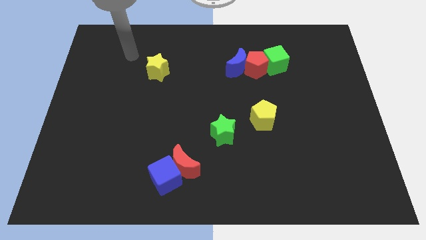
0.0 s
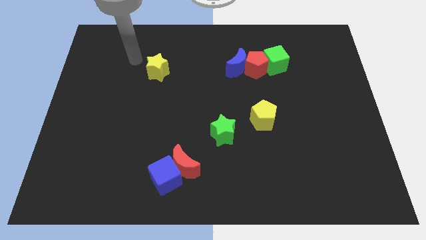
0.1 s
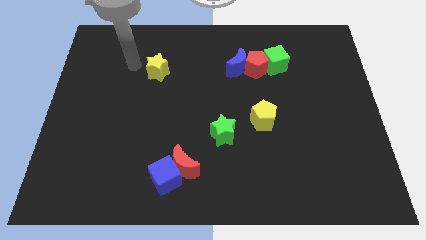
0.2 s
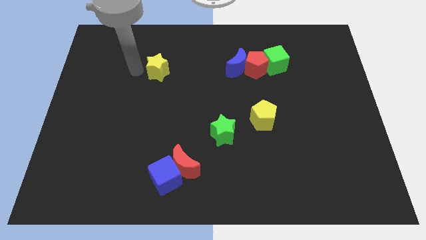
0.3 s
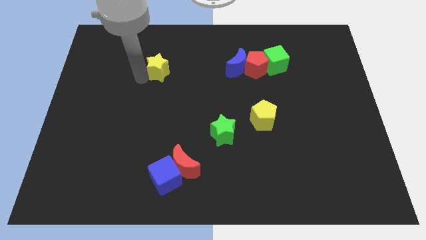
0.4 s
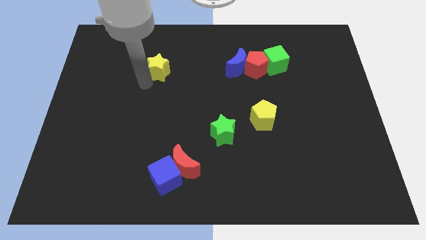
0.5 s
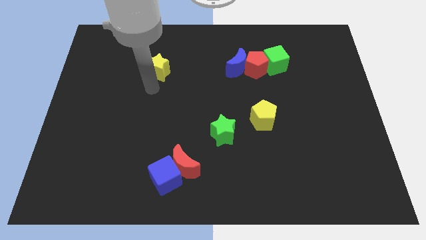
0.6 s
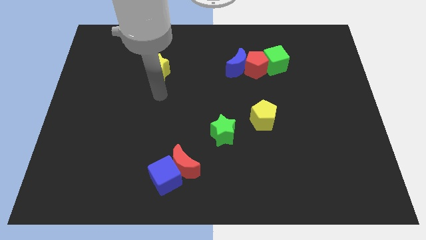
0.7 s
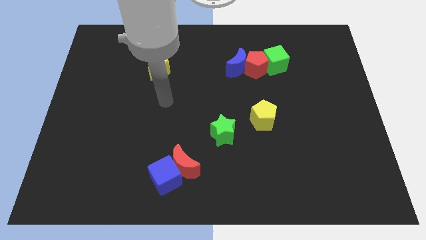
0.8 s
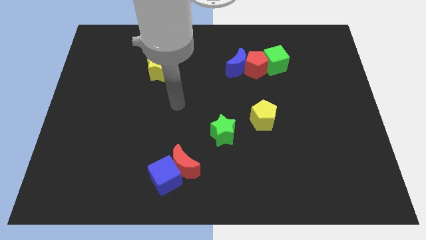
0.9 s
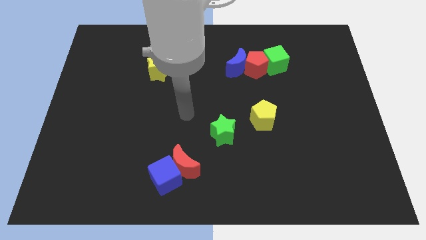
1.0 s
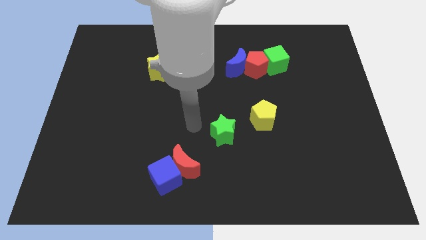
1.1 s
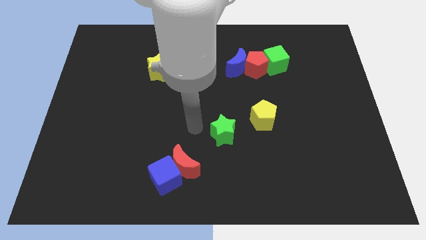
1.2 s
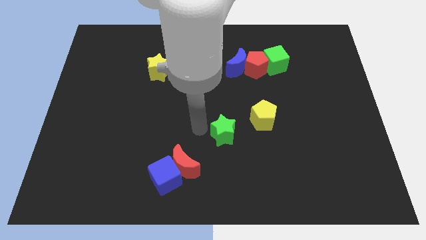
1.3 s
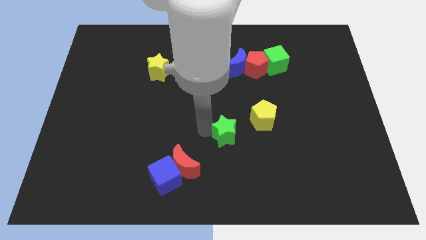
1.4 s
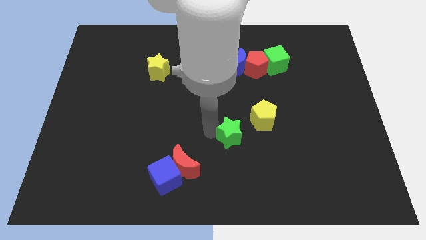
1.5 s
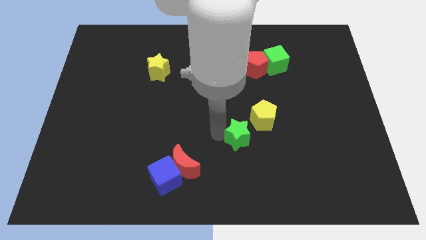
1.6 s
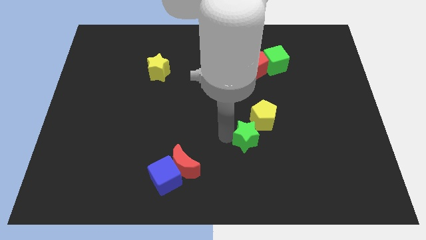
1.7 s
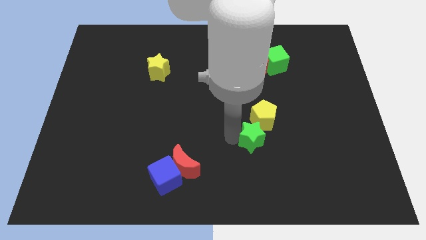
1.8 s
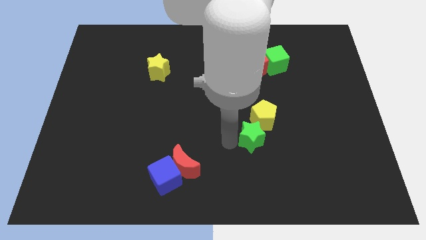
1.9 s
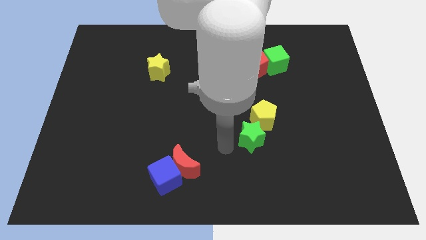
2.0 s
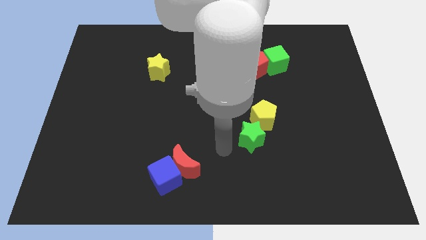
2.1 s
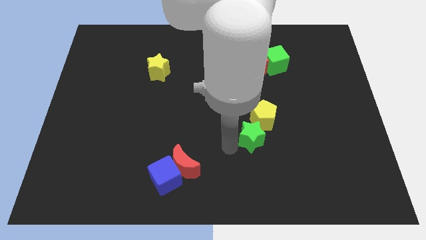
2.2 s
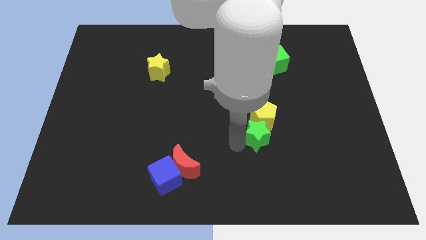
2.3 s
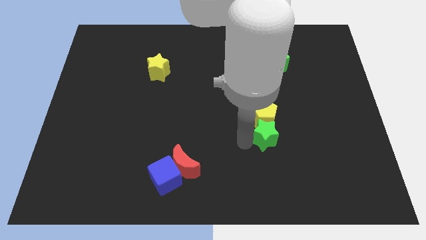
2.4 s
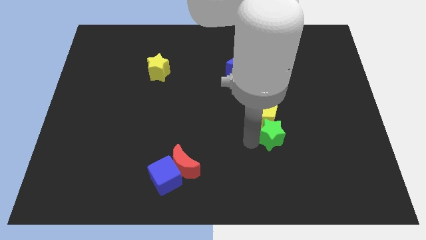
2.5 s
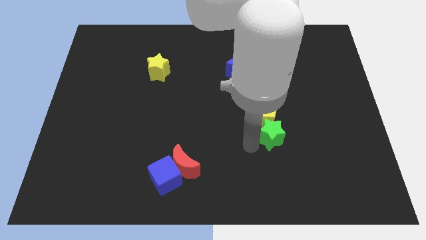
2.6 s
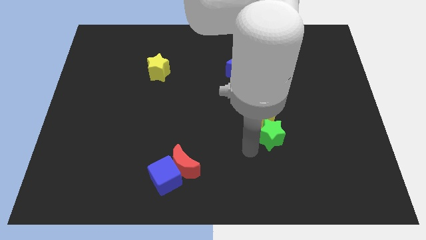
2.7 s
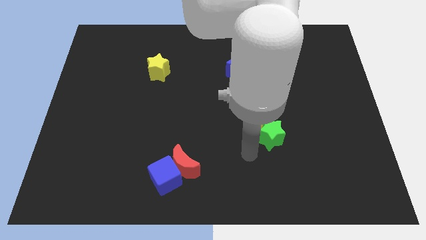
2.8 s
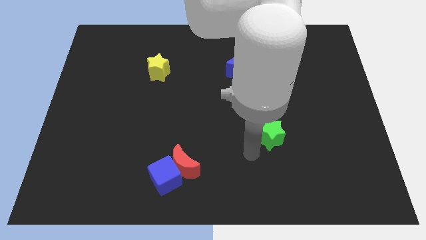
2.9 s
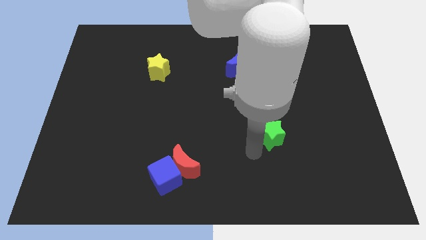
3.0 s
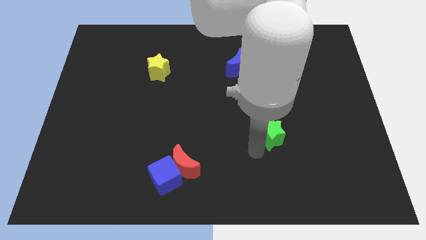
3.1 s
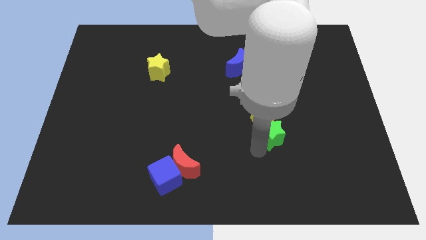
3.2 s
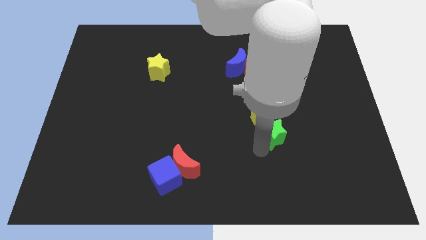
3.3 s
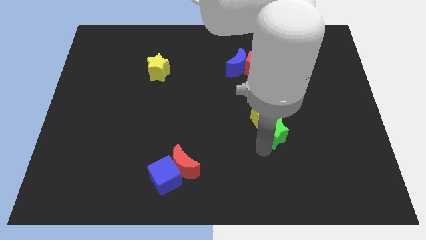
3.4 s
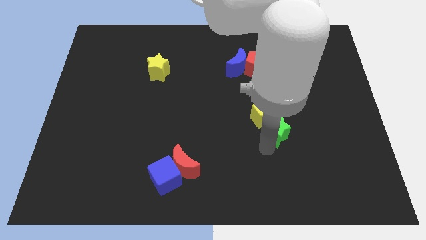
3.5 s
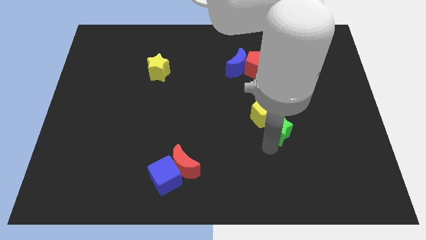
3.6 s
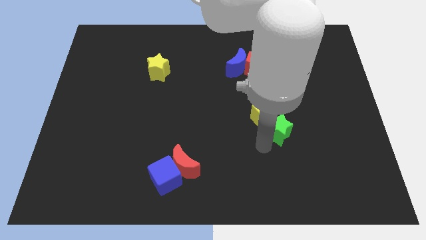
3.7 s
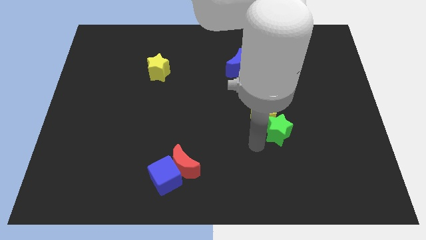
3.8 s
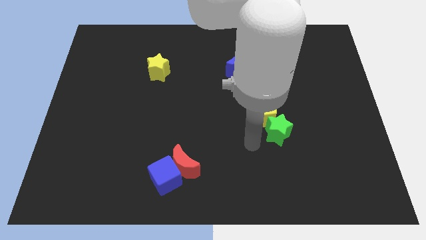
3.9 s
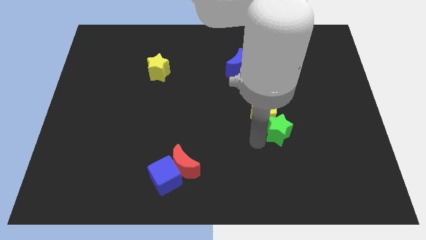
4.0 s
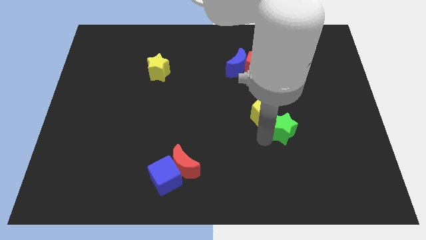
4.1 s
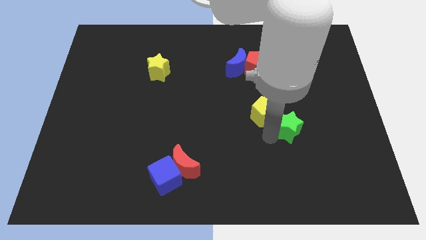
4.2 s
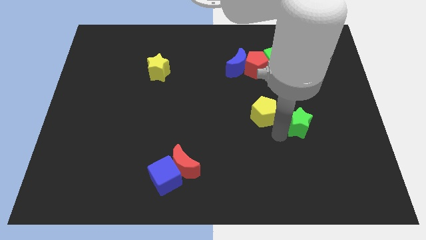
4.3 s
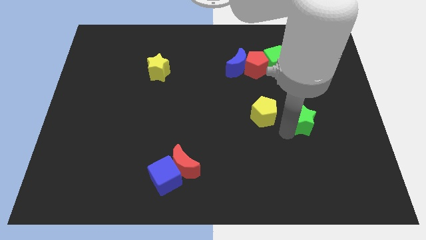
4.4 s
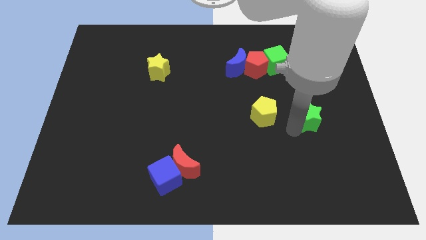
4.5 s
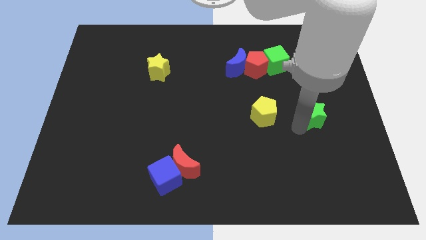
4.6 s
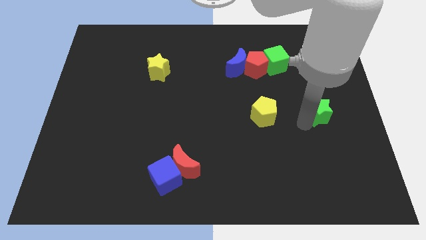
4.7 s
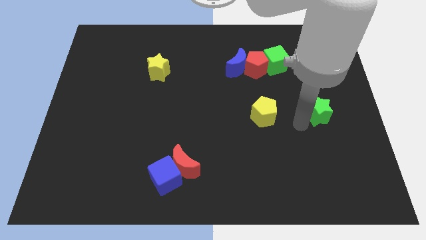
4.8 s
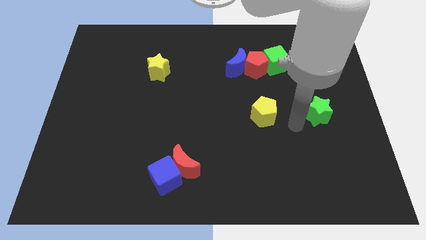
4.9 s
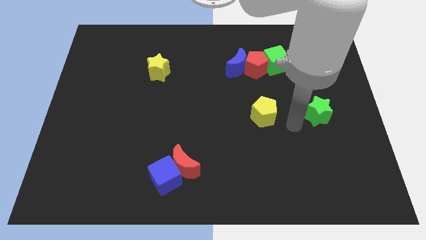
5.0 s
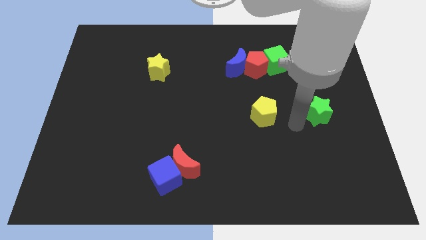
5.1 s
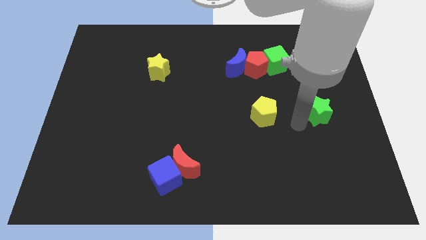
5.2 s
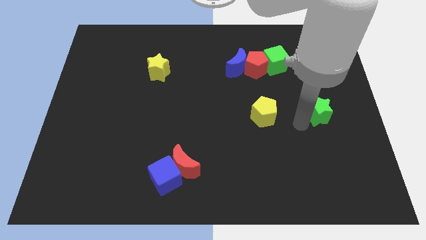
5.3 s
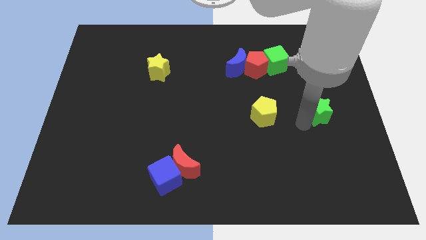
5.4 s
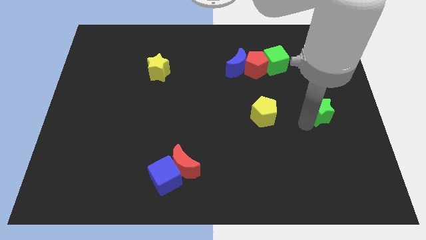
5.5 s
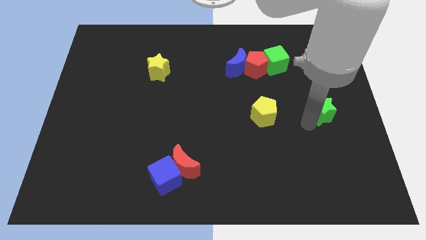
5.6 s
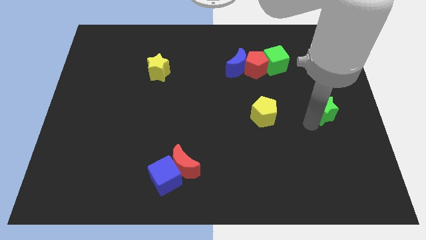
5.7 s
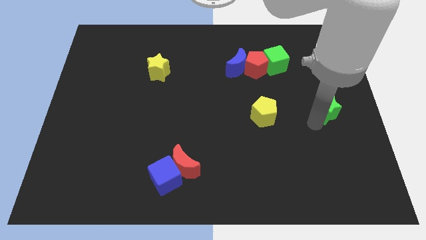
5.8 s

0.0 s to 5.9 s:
push the green star to the center right

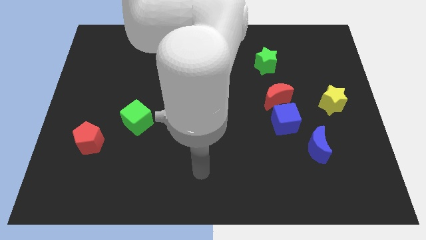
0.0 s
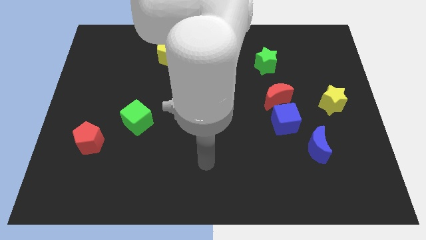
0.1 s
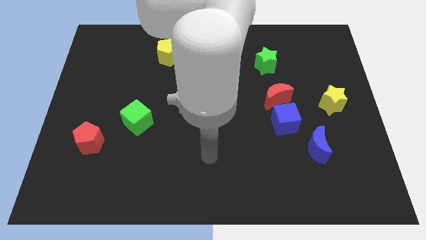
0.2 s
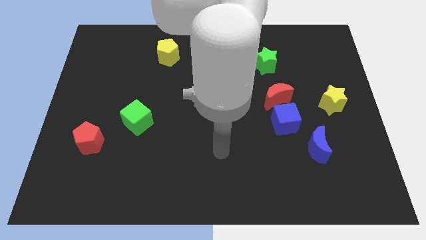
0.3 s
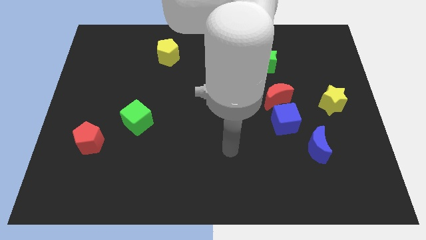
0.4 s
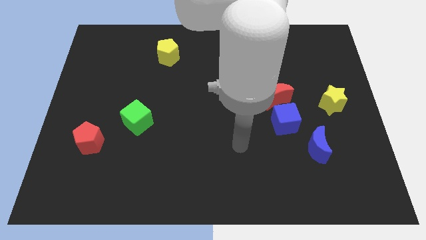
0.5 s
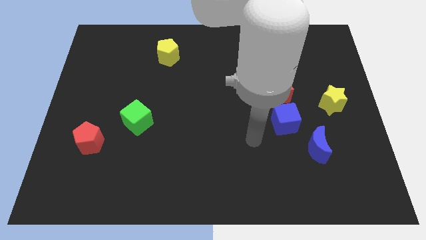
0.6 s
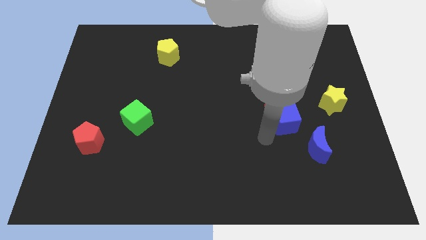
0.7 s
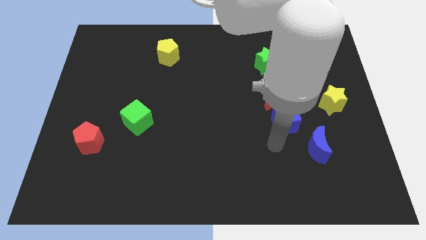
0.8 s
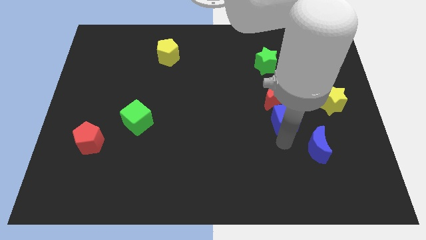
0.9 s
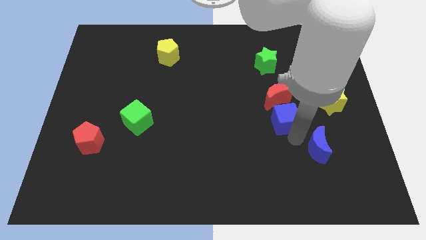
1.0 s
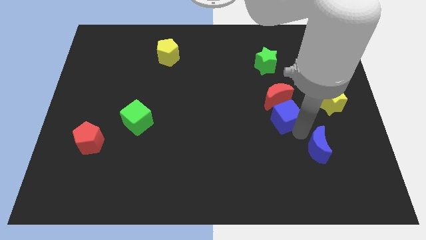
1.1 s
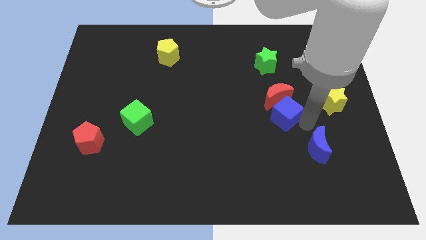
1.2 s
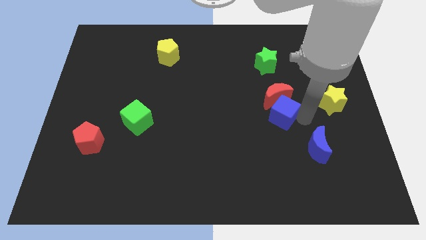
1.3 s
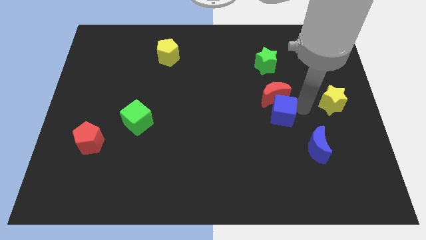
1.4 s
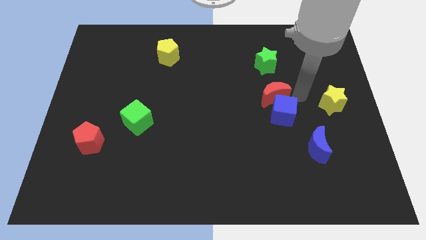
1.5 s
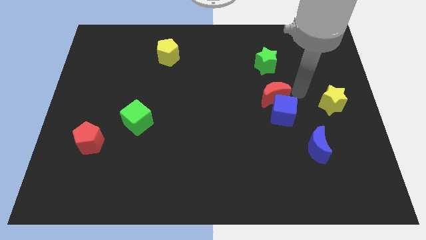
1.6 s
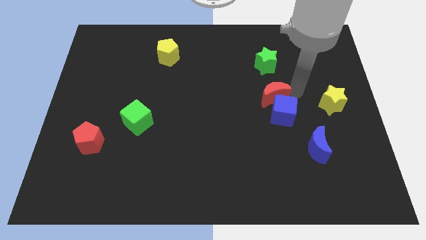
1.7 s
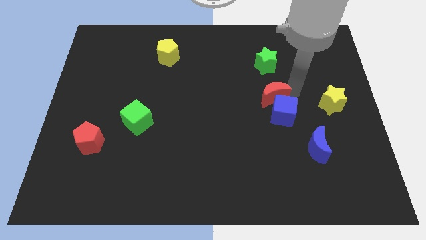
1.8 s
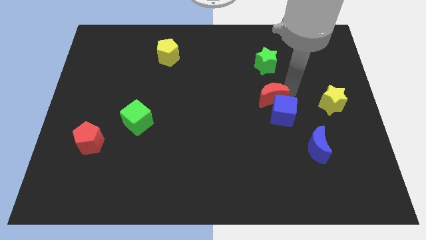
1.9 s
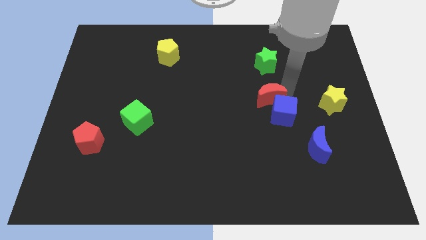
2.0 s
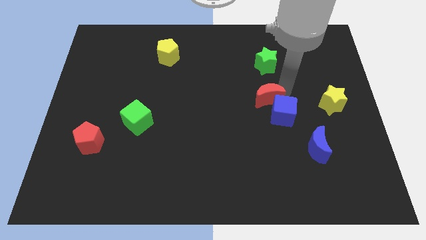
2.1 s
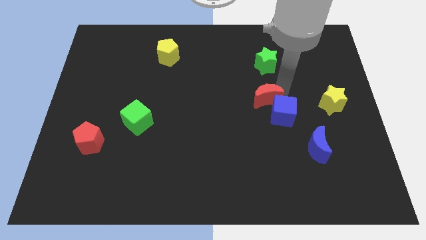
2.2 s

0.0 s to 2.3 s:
move the red moon to the center of the board
